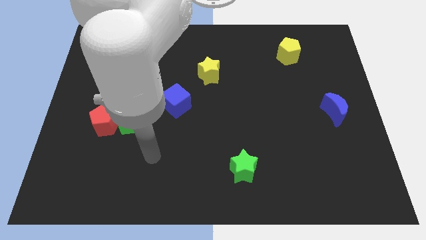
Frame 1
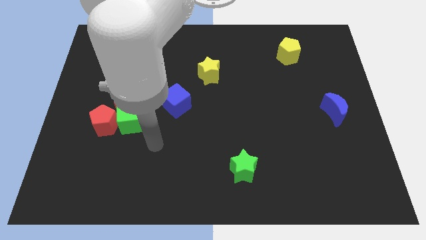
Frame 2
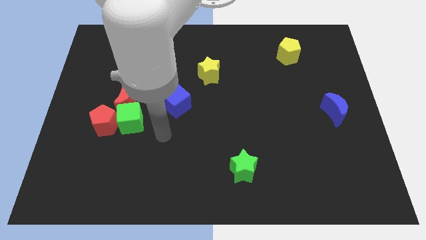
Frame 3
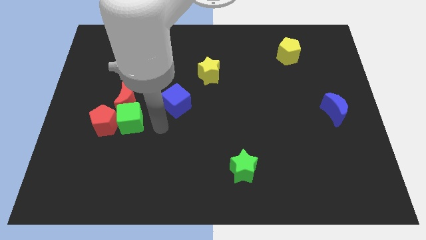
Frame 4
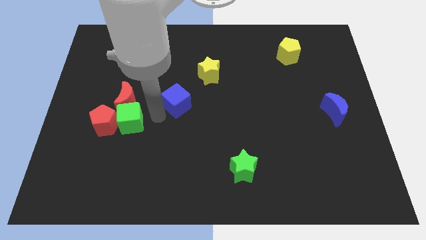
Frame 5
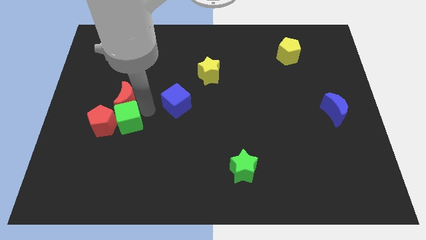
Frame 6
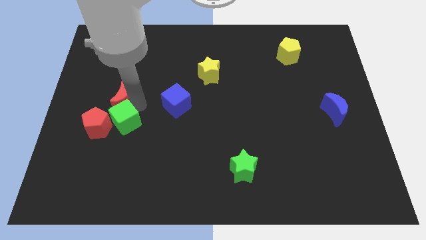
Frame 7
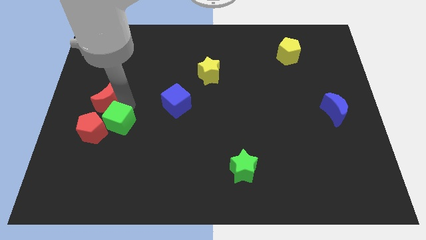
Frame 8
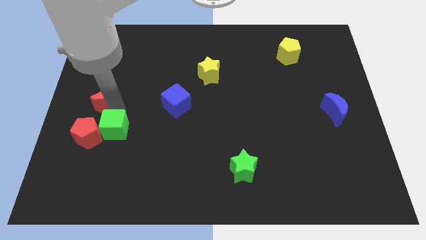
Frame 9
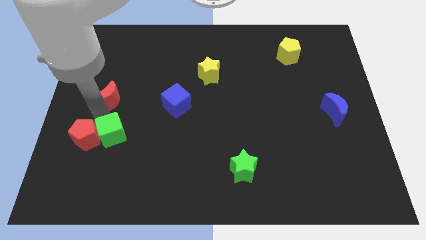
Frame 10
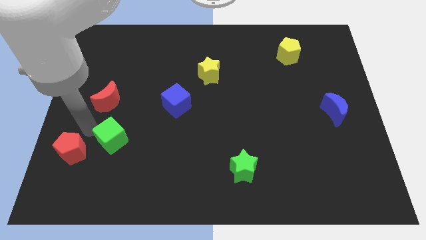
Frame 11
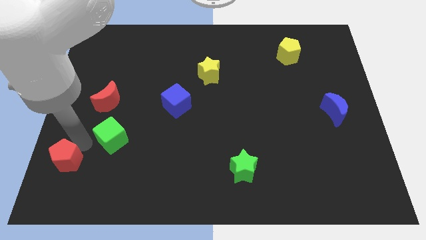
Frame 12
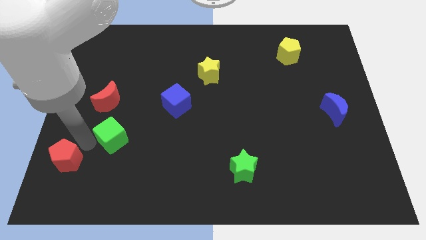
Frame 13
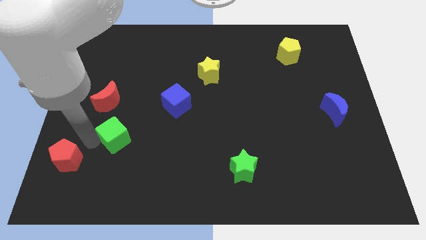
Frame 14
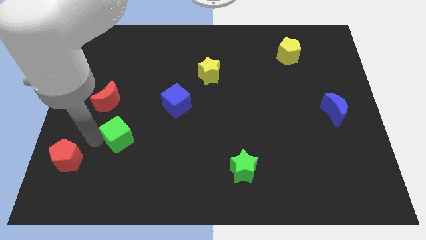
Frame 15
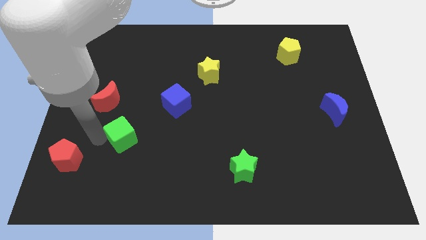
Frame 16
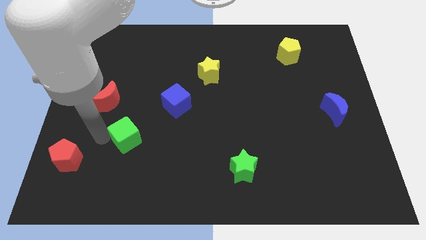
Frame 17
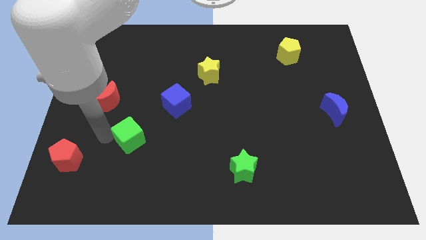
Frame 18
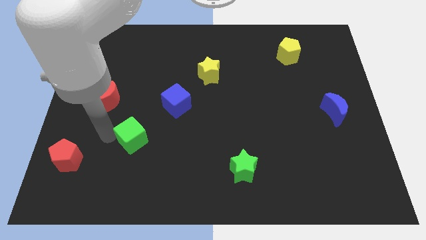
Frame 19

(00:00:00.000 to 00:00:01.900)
move the green cube away from the red moon and red pentagon

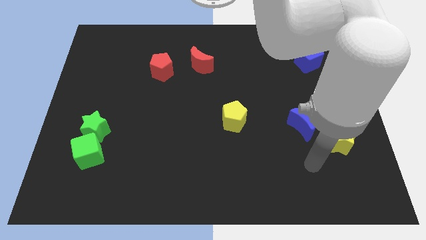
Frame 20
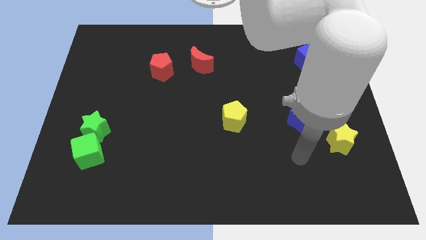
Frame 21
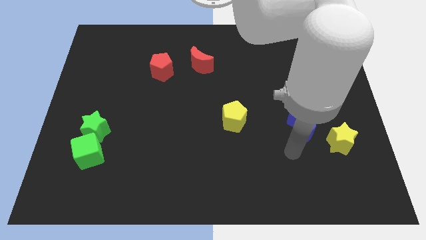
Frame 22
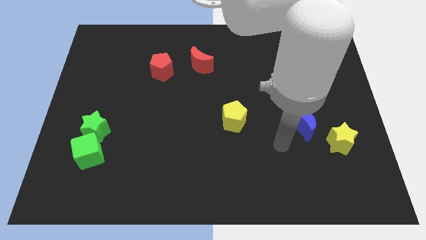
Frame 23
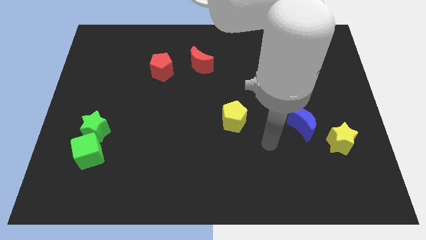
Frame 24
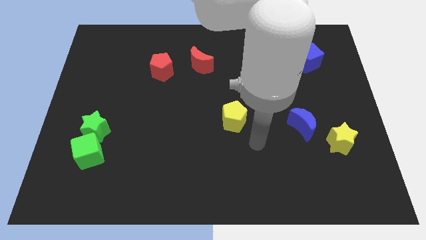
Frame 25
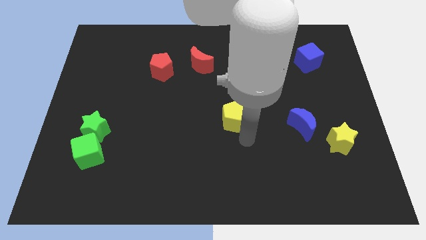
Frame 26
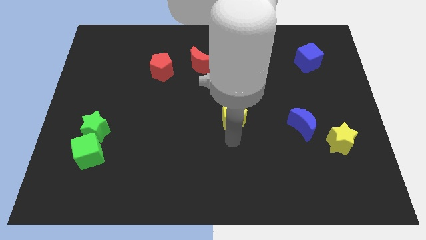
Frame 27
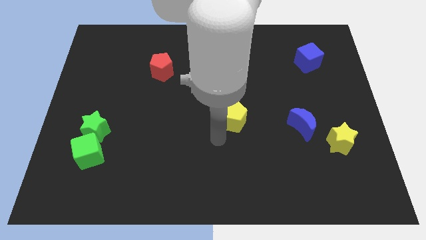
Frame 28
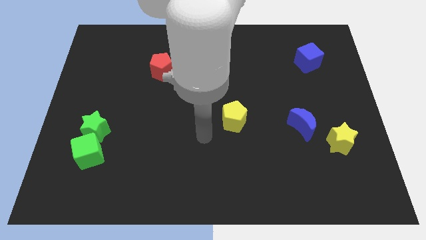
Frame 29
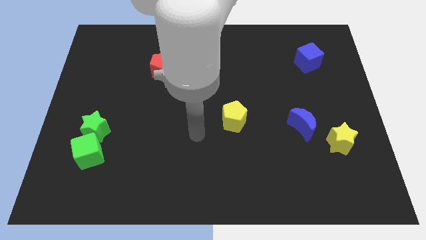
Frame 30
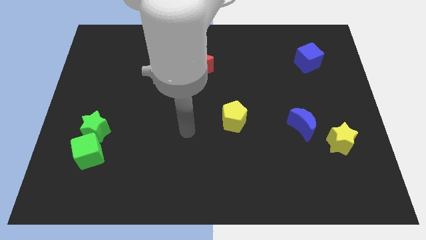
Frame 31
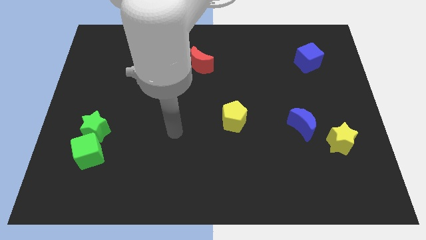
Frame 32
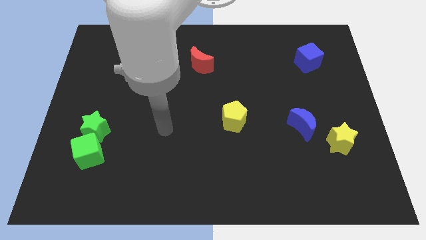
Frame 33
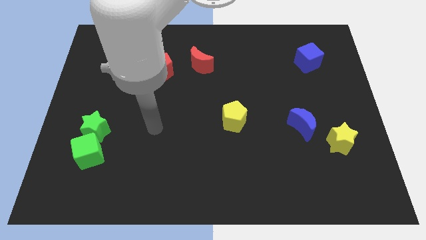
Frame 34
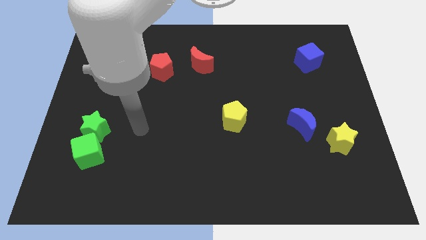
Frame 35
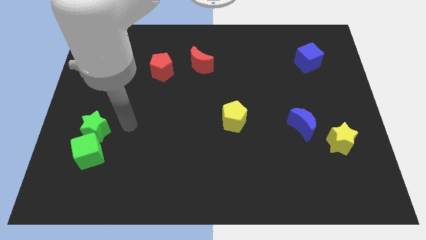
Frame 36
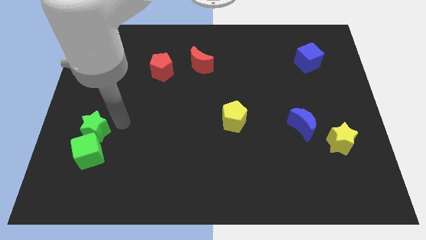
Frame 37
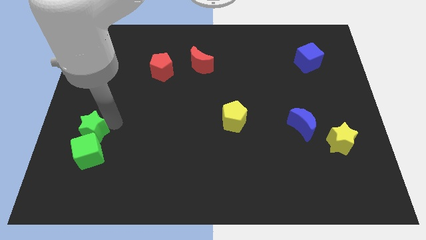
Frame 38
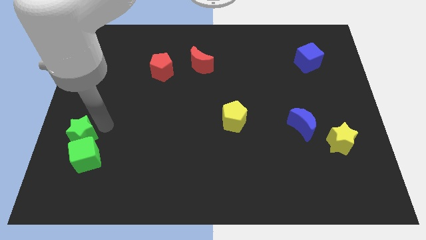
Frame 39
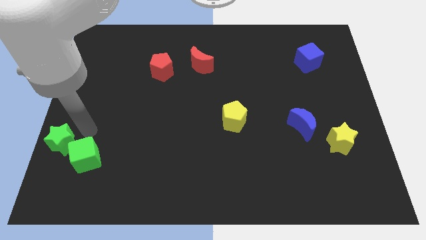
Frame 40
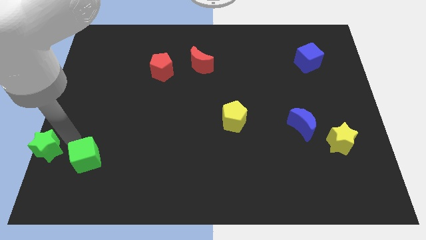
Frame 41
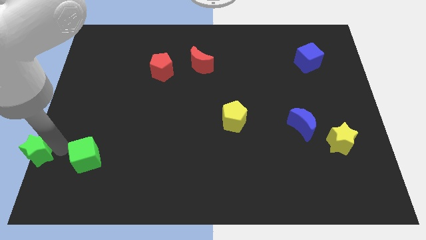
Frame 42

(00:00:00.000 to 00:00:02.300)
move the green cube away from the green star

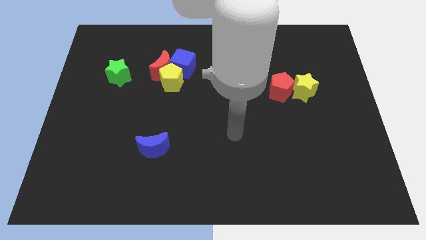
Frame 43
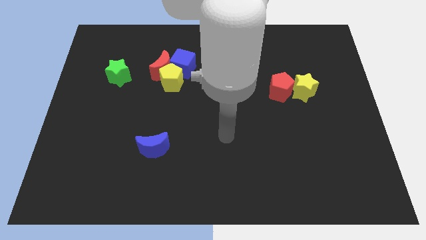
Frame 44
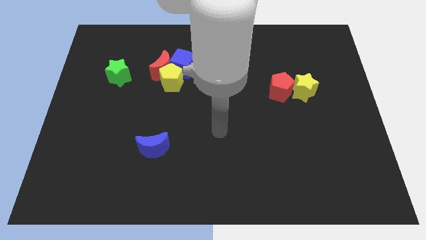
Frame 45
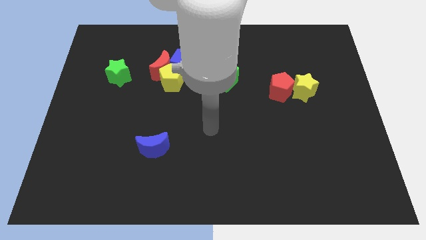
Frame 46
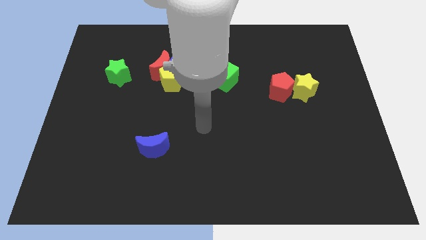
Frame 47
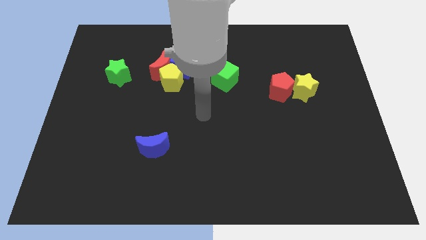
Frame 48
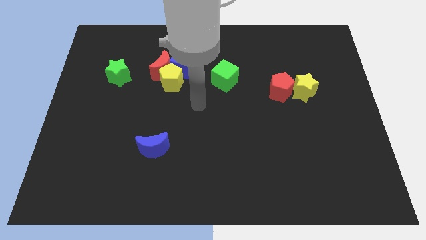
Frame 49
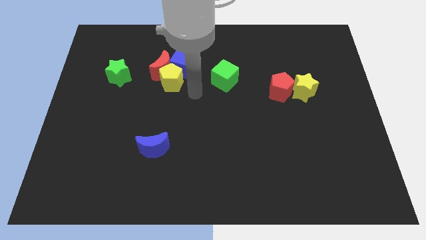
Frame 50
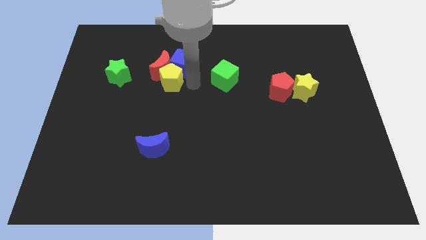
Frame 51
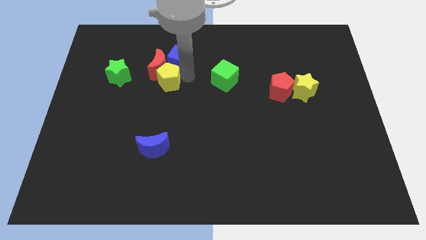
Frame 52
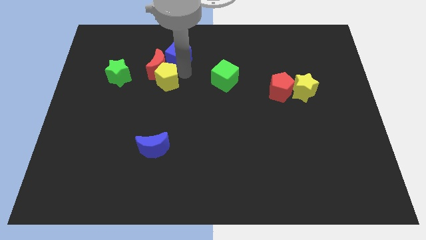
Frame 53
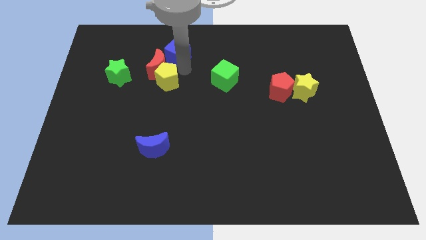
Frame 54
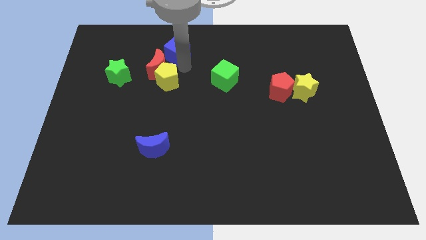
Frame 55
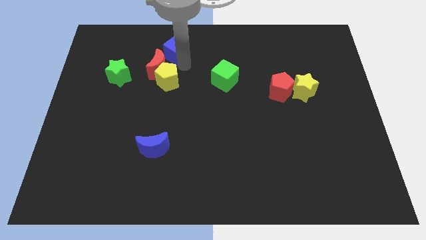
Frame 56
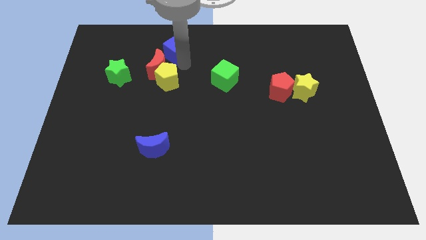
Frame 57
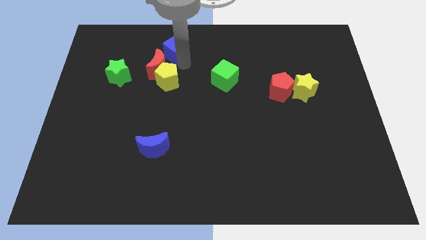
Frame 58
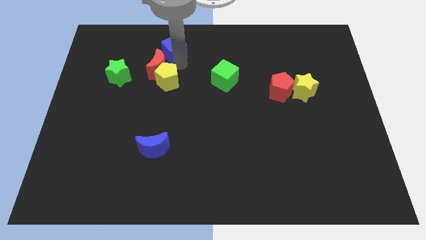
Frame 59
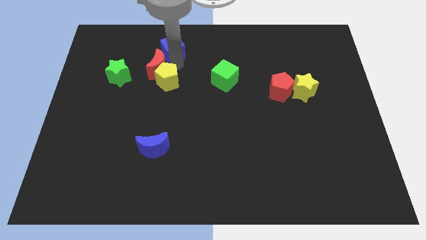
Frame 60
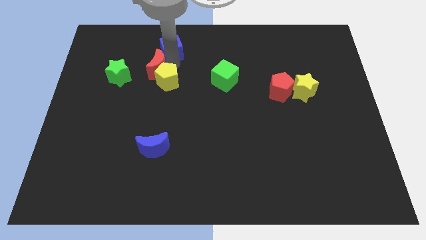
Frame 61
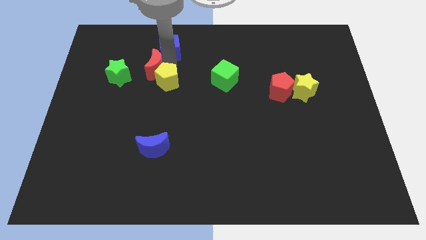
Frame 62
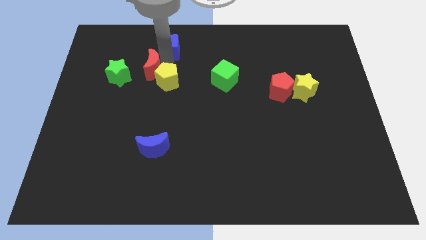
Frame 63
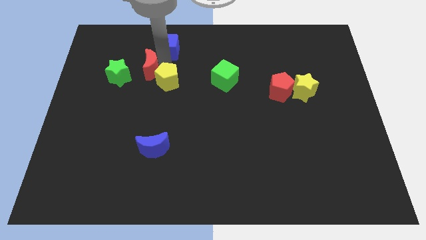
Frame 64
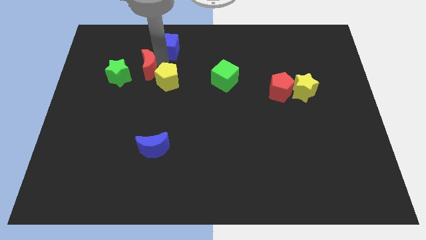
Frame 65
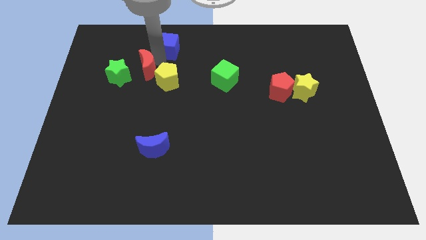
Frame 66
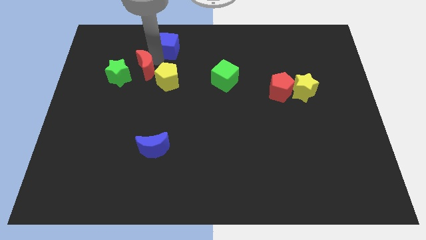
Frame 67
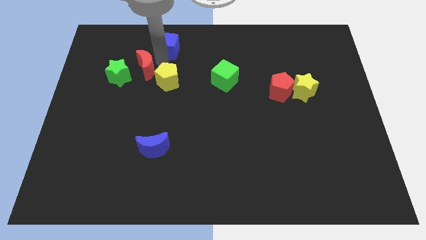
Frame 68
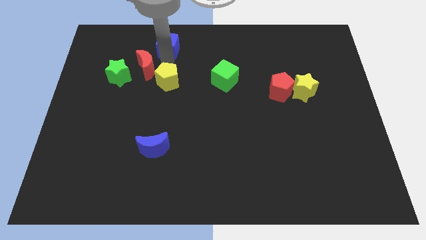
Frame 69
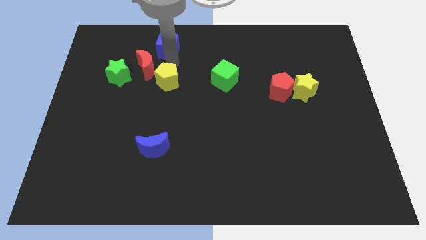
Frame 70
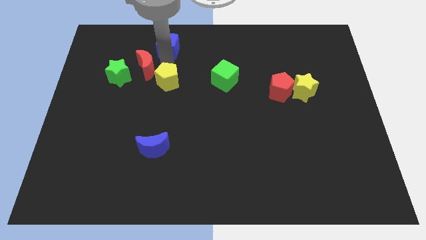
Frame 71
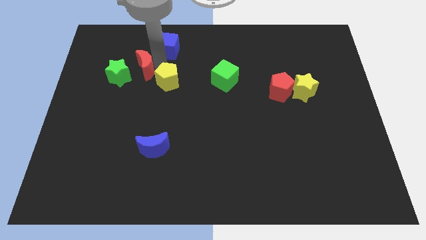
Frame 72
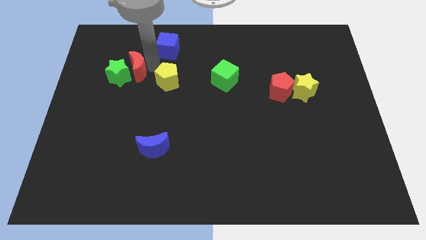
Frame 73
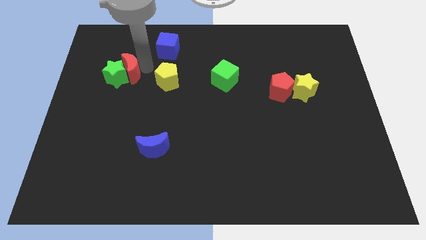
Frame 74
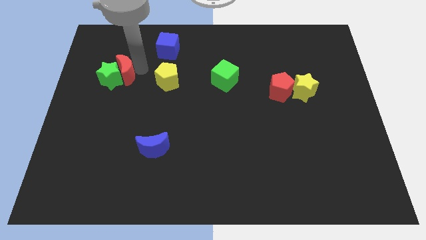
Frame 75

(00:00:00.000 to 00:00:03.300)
move the red moon away from the yellow pentagon and blue cube

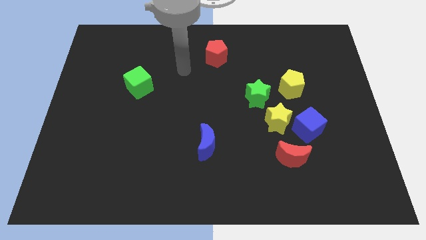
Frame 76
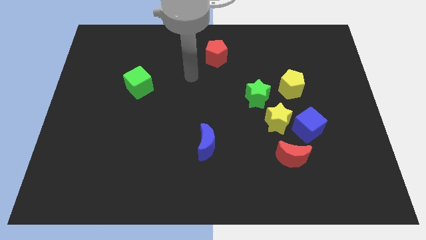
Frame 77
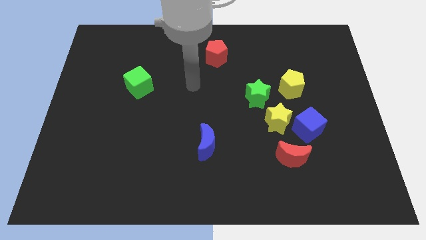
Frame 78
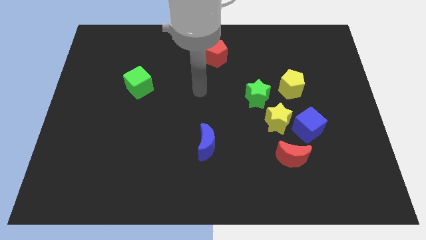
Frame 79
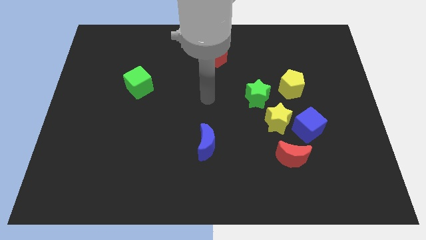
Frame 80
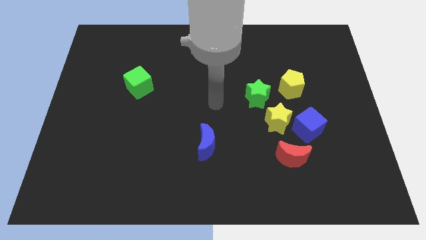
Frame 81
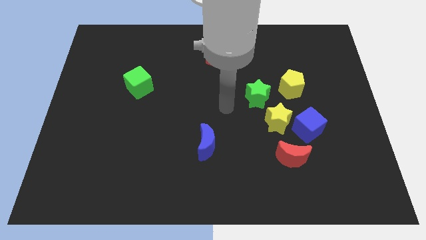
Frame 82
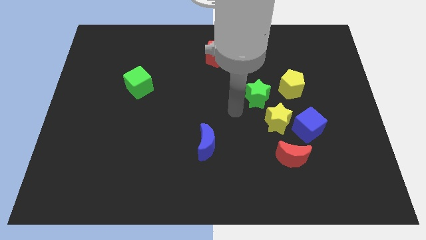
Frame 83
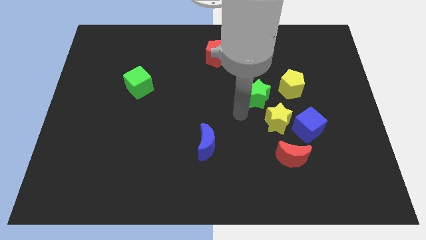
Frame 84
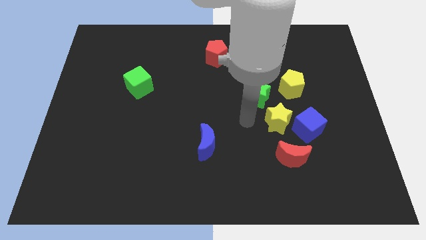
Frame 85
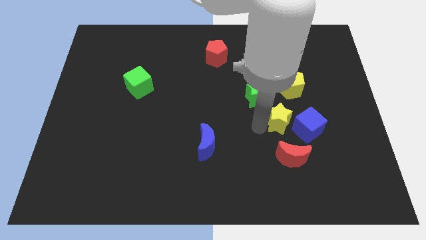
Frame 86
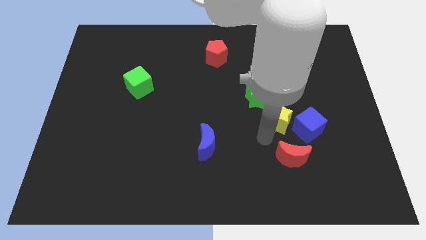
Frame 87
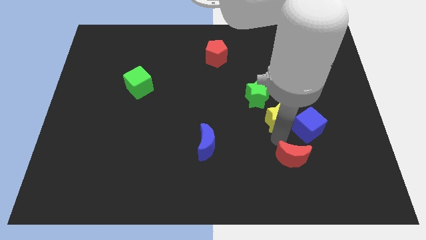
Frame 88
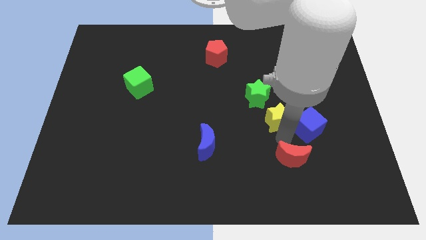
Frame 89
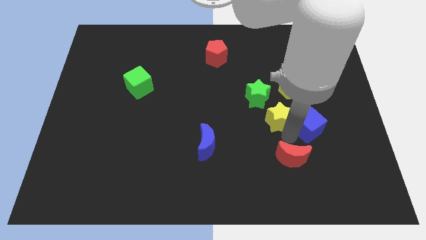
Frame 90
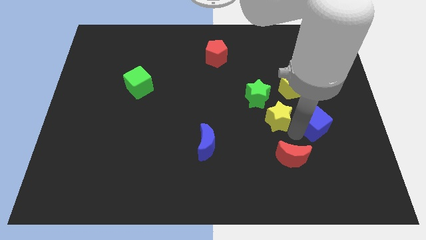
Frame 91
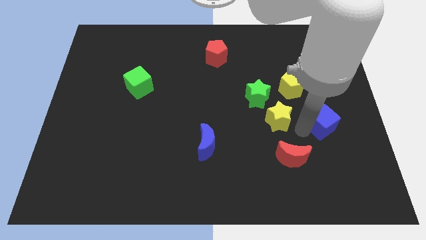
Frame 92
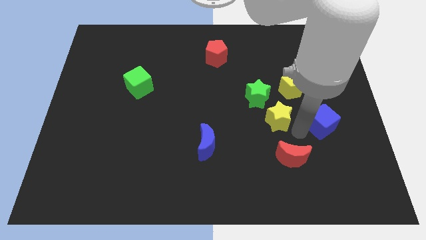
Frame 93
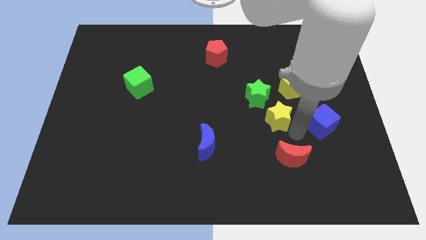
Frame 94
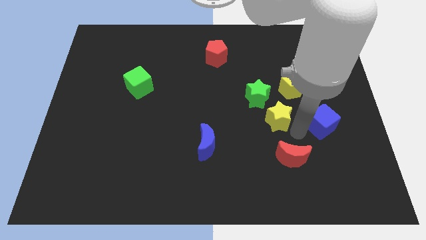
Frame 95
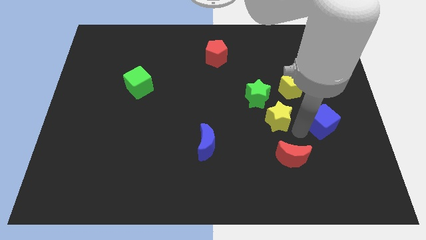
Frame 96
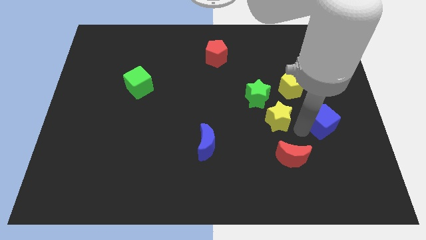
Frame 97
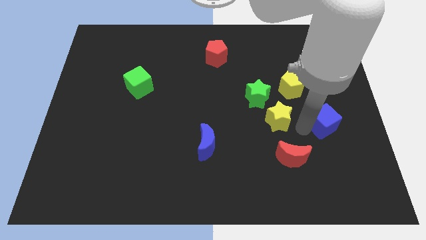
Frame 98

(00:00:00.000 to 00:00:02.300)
pull the blue cube apart from the yellow star and red moon
